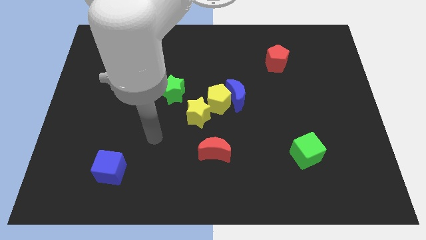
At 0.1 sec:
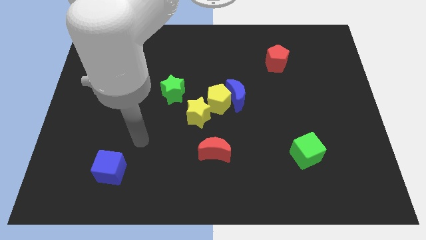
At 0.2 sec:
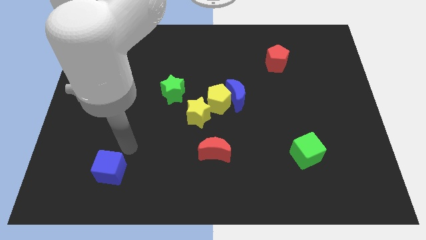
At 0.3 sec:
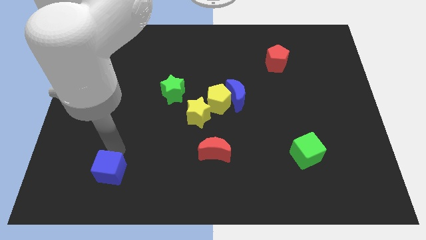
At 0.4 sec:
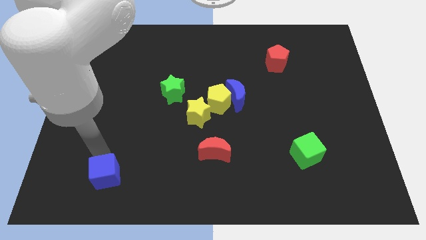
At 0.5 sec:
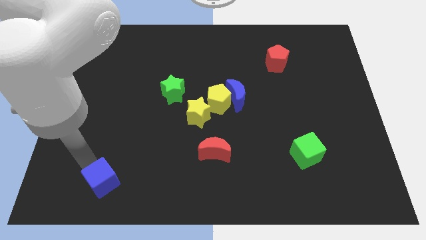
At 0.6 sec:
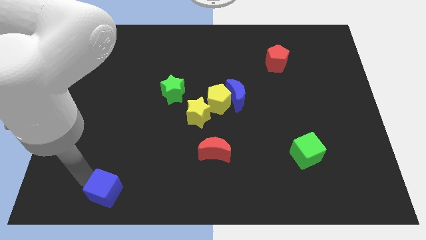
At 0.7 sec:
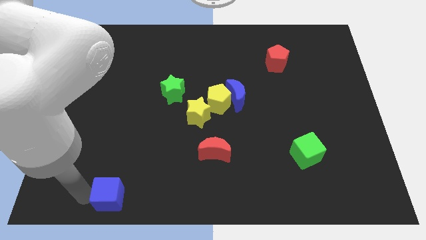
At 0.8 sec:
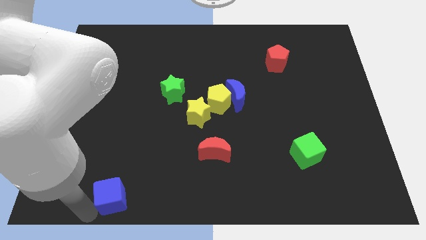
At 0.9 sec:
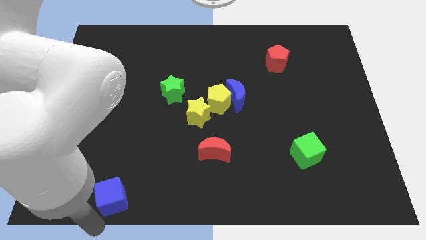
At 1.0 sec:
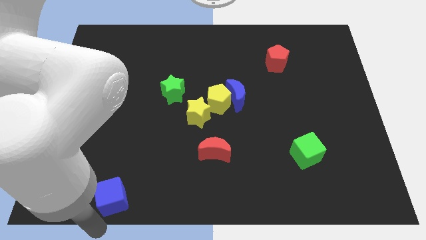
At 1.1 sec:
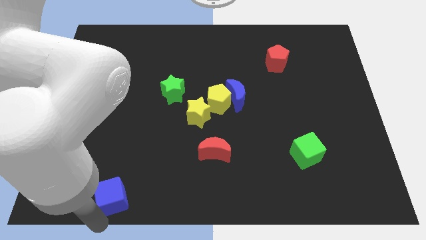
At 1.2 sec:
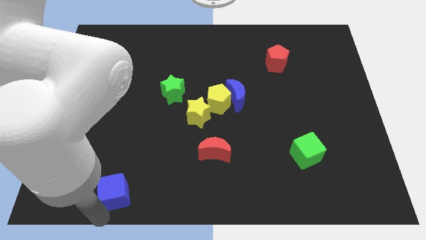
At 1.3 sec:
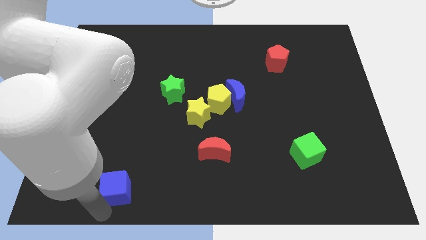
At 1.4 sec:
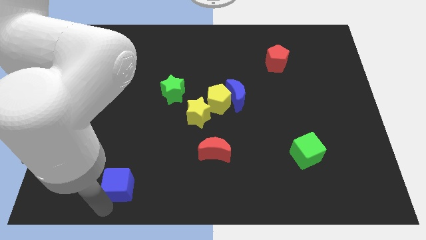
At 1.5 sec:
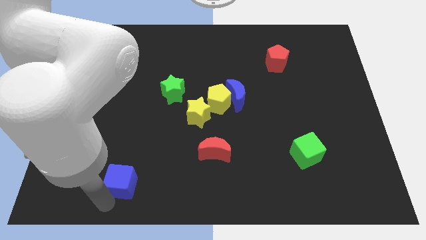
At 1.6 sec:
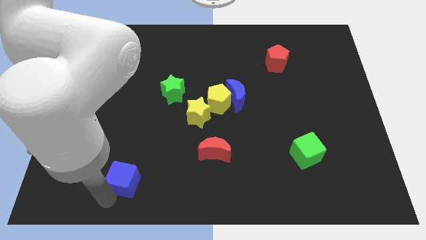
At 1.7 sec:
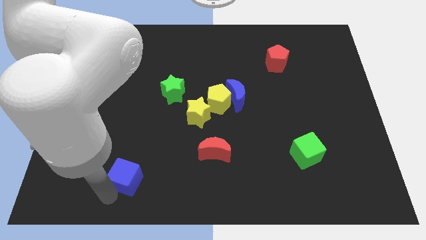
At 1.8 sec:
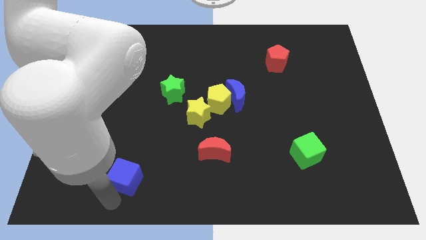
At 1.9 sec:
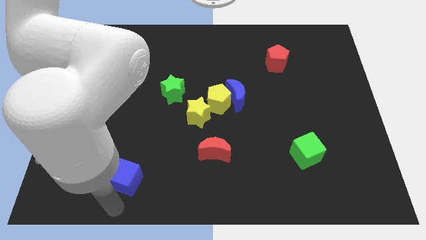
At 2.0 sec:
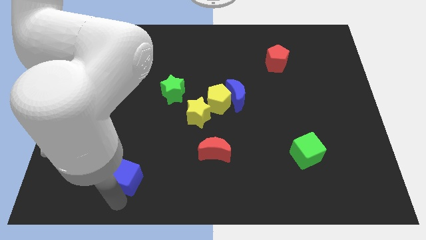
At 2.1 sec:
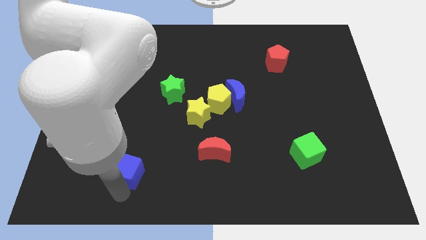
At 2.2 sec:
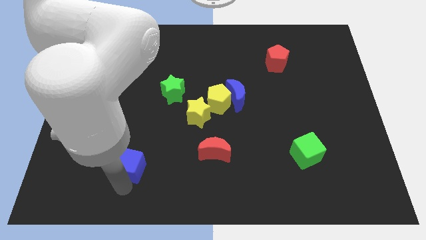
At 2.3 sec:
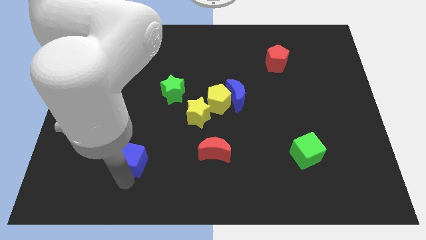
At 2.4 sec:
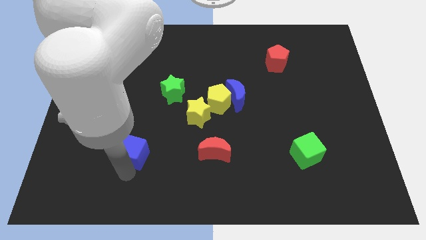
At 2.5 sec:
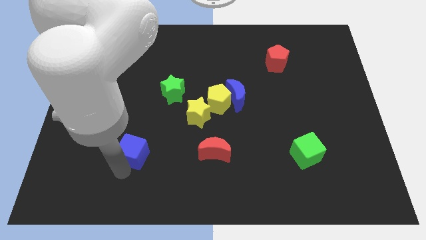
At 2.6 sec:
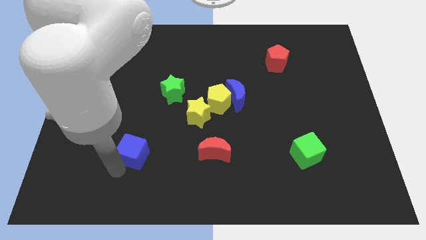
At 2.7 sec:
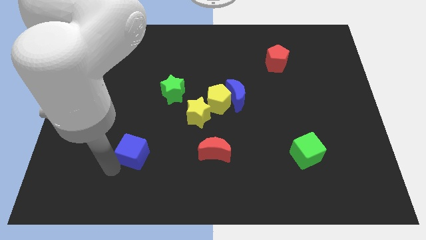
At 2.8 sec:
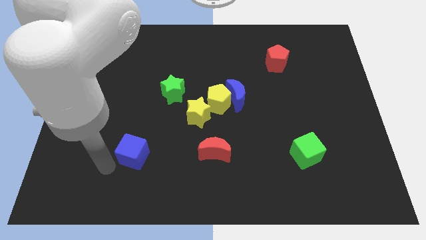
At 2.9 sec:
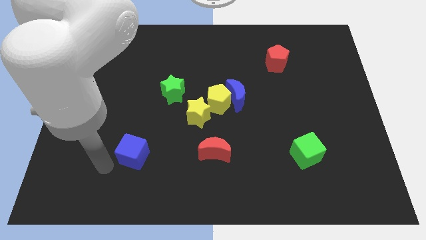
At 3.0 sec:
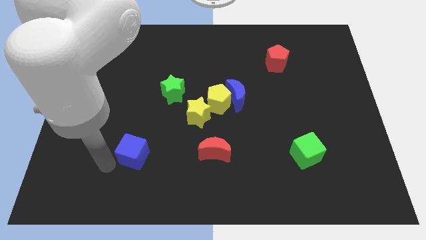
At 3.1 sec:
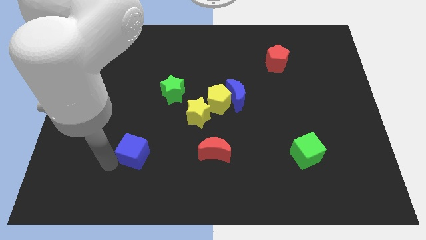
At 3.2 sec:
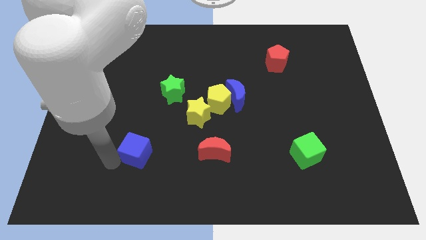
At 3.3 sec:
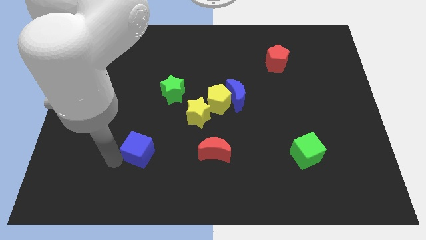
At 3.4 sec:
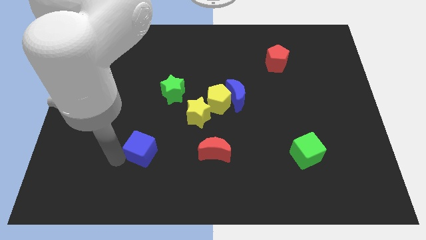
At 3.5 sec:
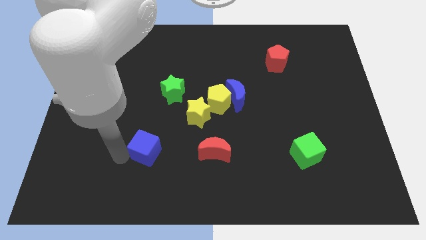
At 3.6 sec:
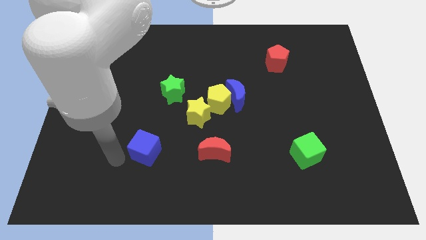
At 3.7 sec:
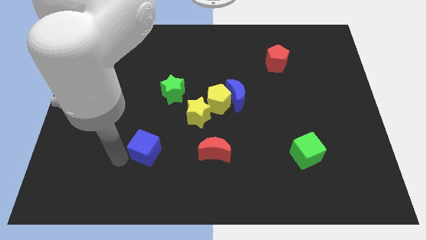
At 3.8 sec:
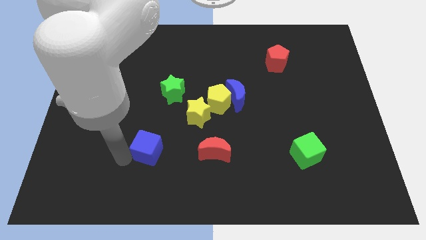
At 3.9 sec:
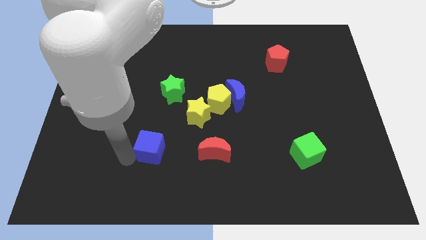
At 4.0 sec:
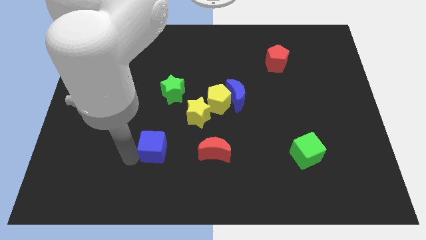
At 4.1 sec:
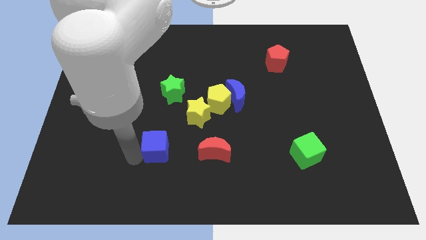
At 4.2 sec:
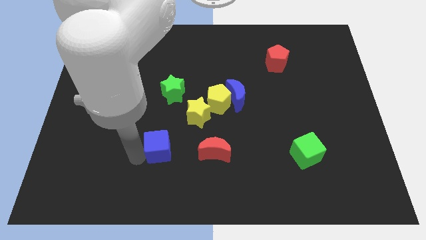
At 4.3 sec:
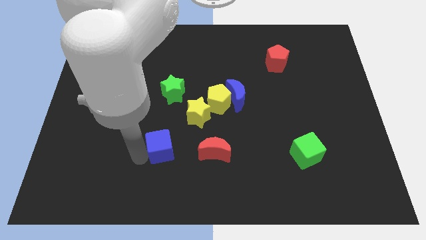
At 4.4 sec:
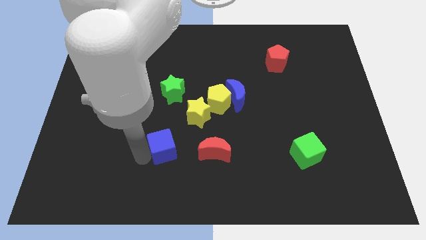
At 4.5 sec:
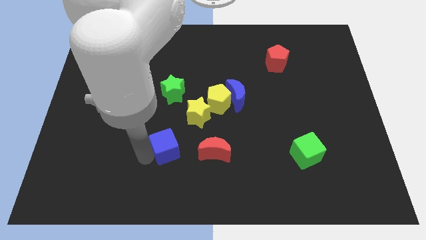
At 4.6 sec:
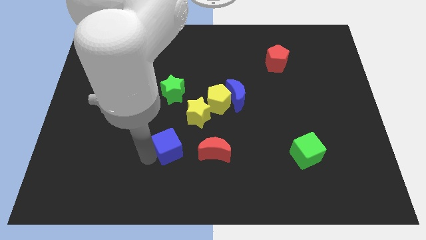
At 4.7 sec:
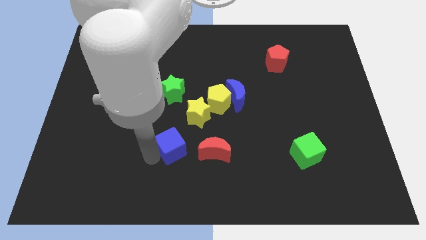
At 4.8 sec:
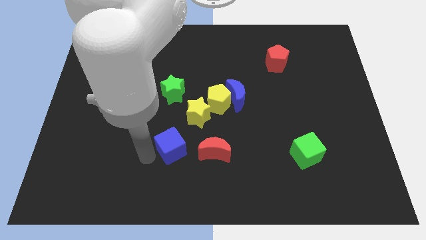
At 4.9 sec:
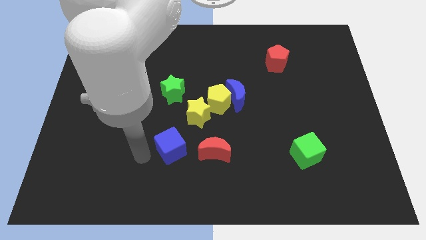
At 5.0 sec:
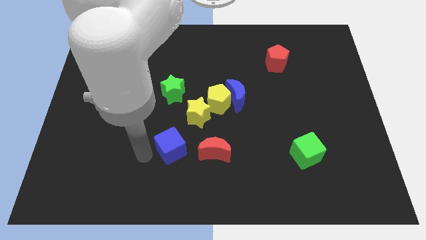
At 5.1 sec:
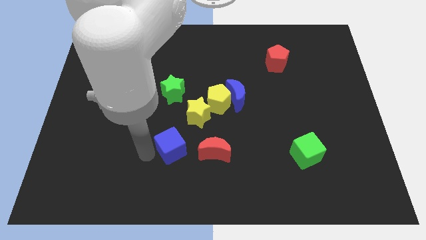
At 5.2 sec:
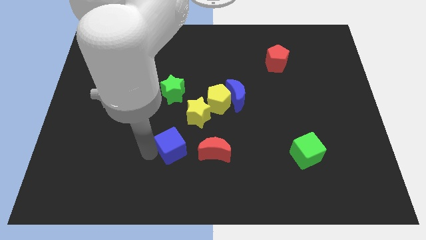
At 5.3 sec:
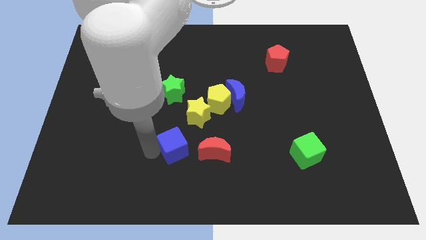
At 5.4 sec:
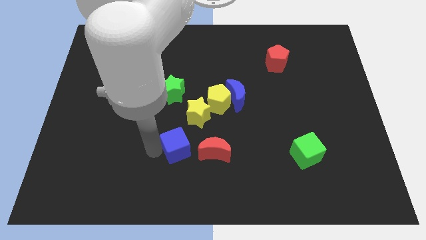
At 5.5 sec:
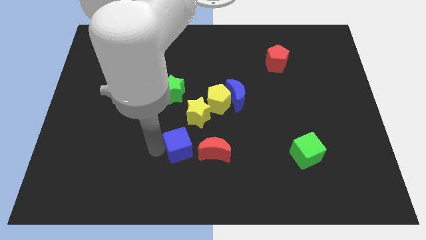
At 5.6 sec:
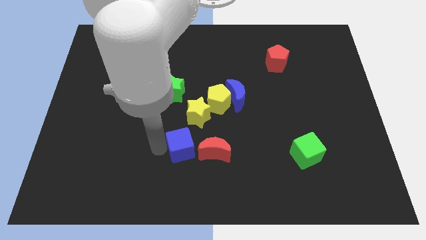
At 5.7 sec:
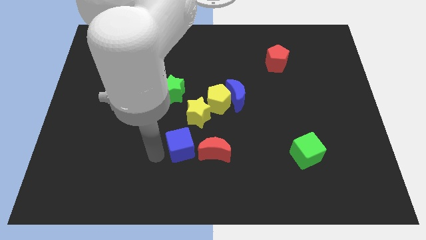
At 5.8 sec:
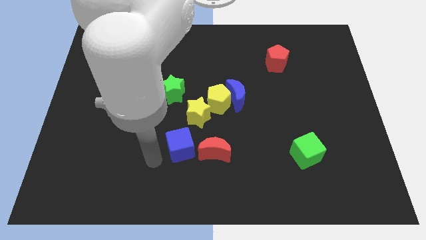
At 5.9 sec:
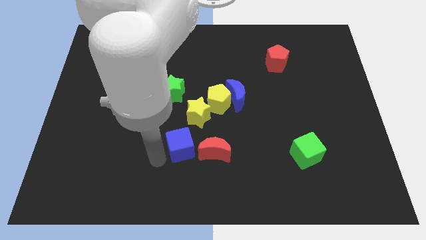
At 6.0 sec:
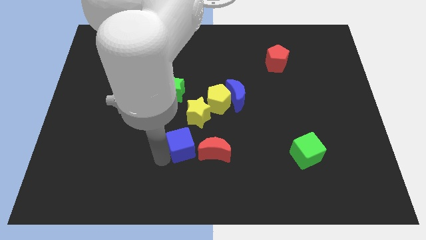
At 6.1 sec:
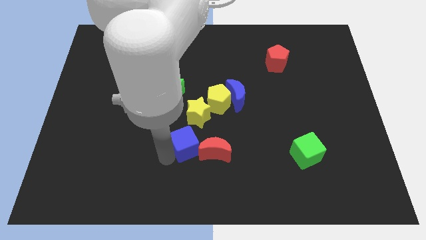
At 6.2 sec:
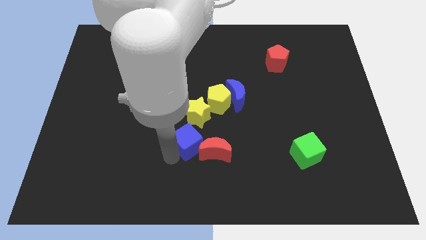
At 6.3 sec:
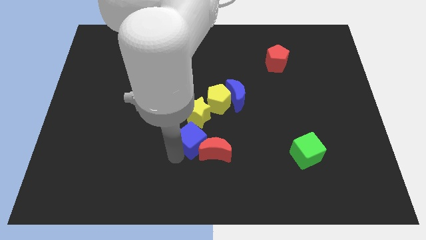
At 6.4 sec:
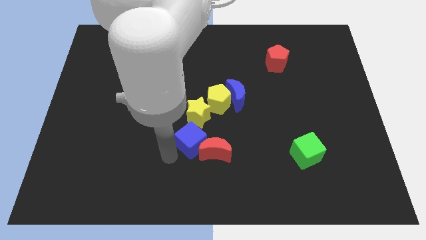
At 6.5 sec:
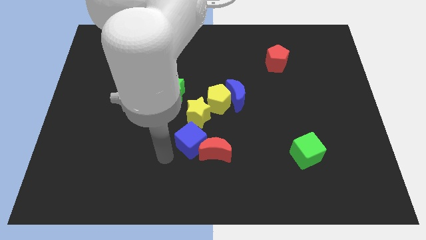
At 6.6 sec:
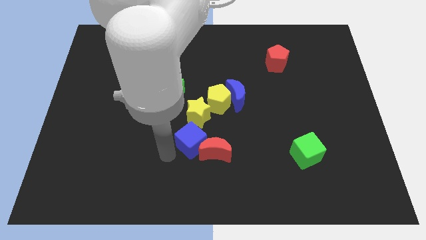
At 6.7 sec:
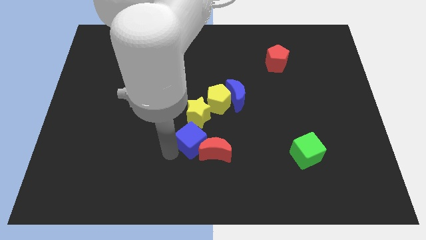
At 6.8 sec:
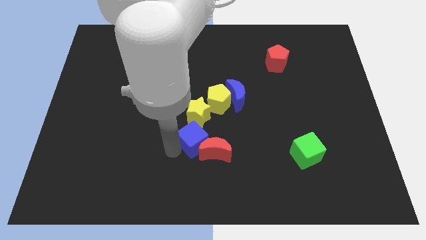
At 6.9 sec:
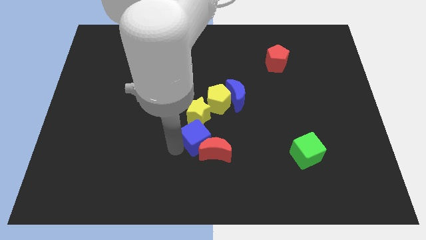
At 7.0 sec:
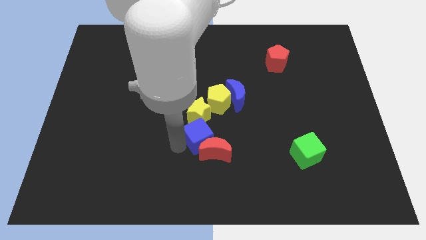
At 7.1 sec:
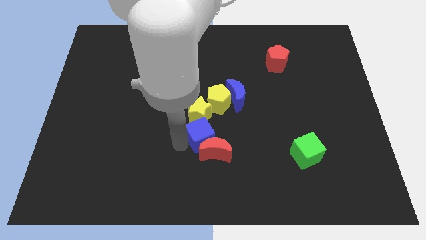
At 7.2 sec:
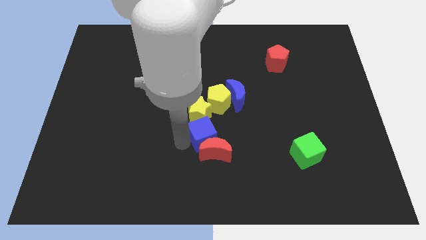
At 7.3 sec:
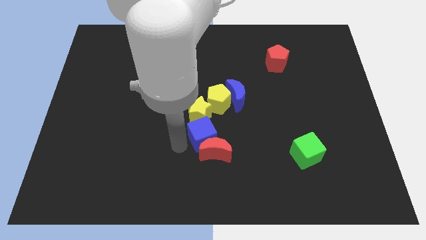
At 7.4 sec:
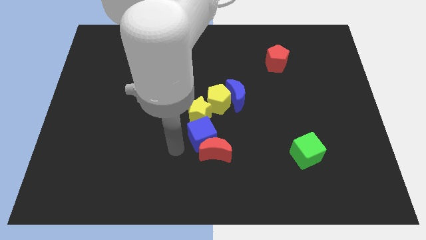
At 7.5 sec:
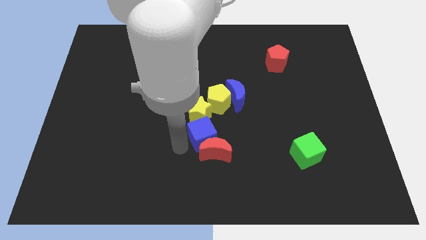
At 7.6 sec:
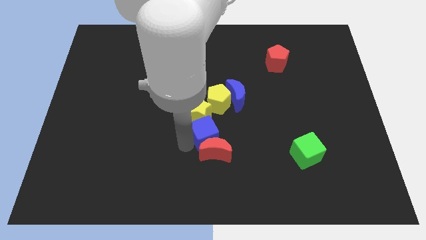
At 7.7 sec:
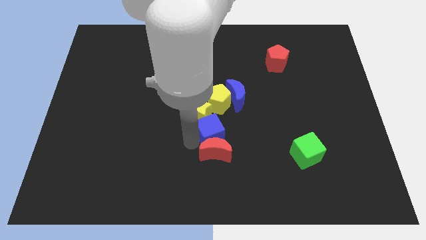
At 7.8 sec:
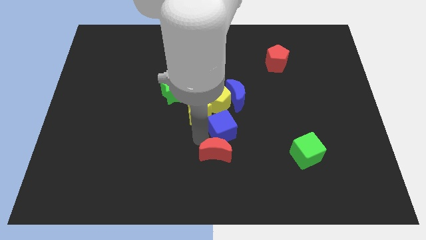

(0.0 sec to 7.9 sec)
put the blue cube to the bottom right of the yellow pentagon
